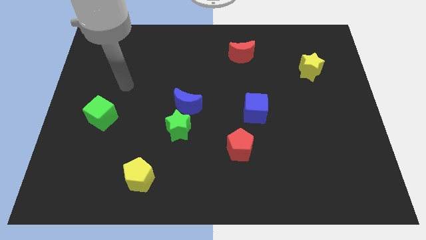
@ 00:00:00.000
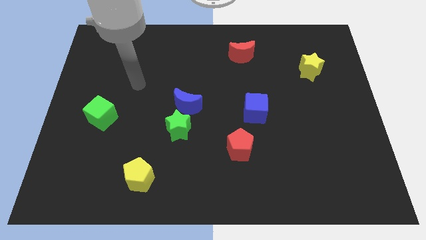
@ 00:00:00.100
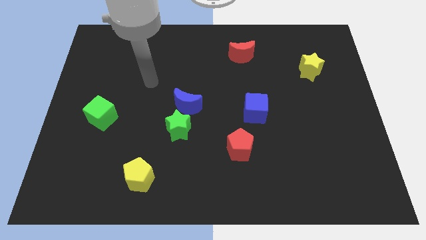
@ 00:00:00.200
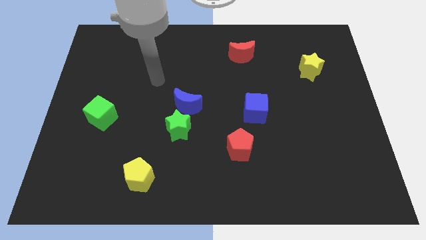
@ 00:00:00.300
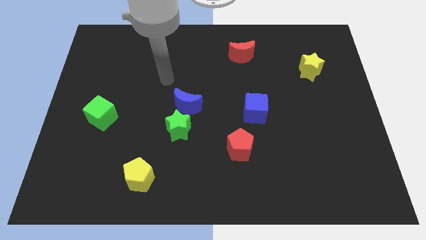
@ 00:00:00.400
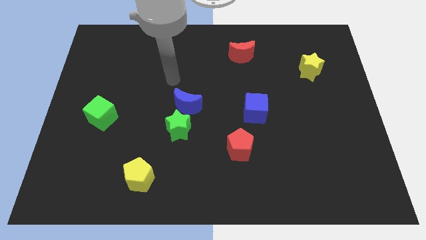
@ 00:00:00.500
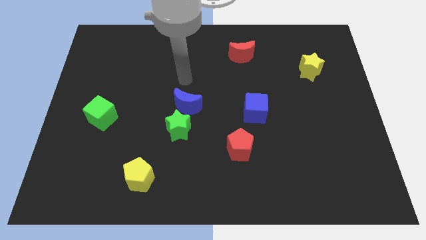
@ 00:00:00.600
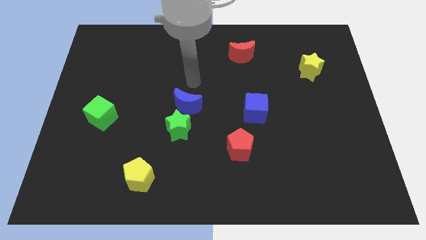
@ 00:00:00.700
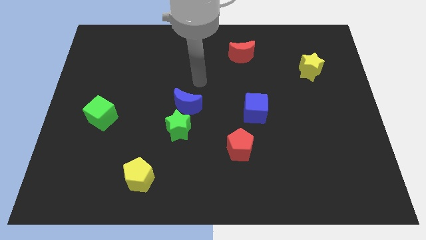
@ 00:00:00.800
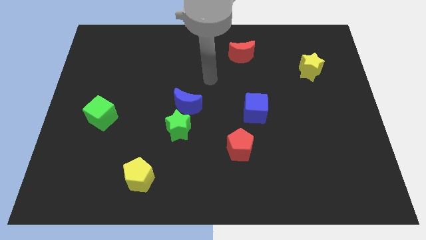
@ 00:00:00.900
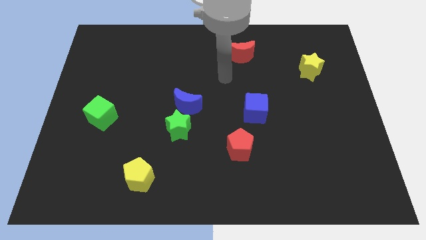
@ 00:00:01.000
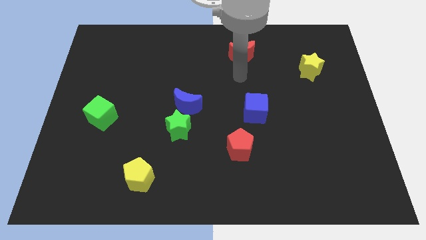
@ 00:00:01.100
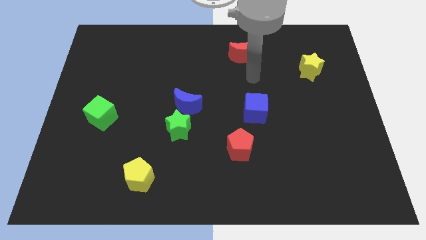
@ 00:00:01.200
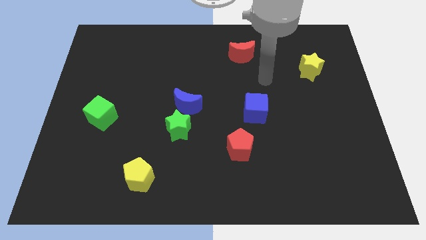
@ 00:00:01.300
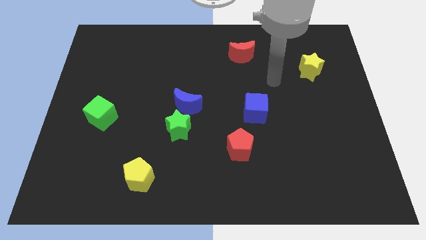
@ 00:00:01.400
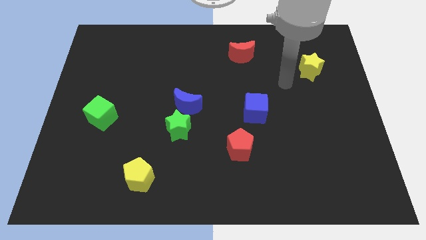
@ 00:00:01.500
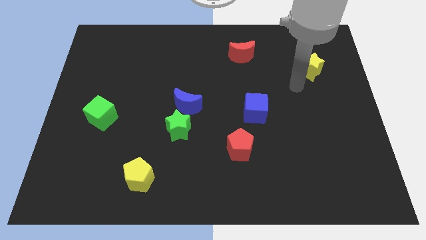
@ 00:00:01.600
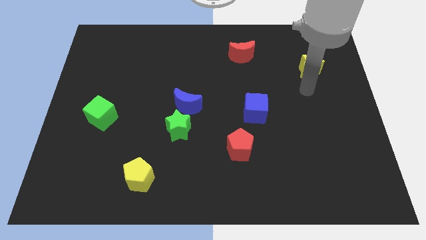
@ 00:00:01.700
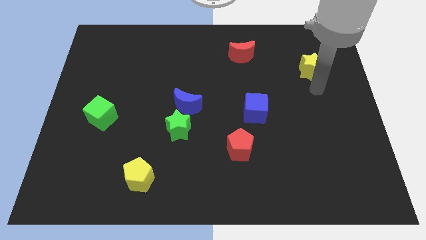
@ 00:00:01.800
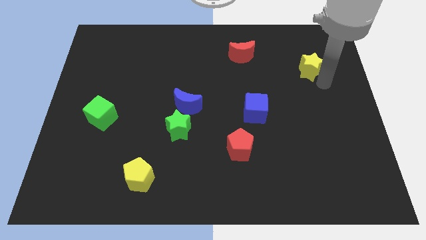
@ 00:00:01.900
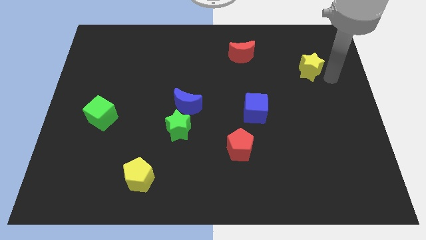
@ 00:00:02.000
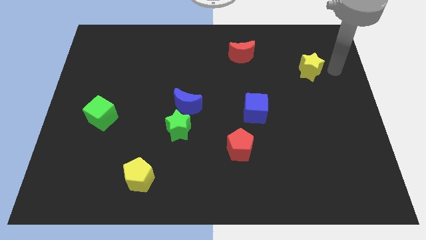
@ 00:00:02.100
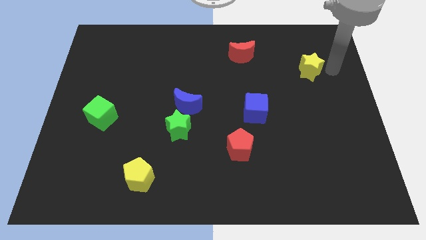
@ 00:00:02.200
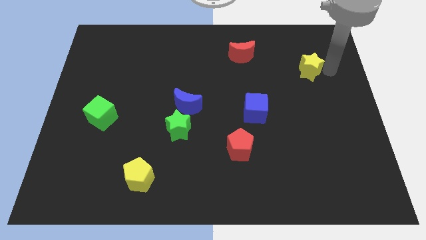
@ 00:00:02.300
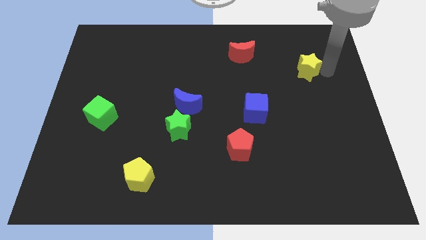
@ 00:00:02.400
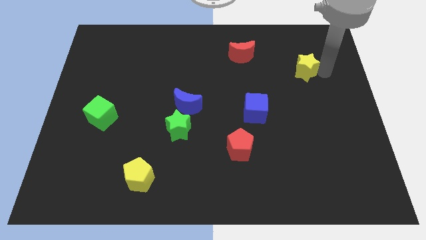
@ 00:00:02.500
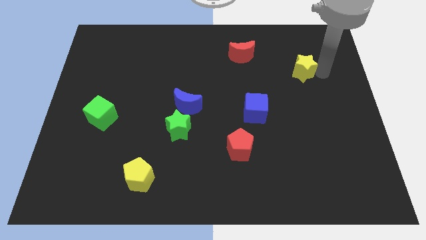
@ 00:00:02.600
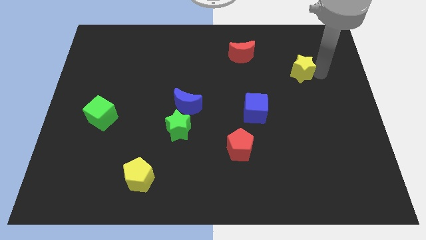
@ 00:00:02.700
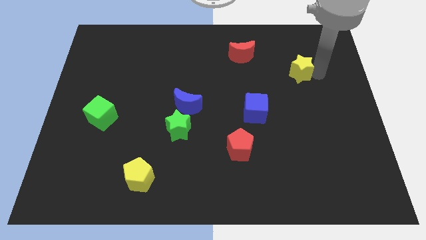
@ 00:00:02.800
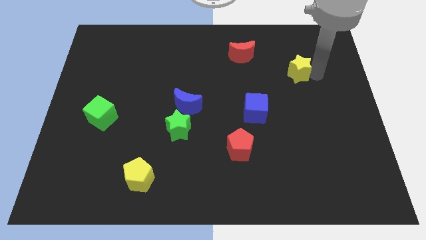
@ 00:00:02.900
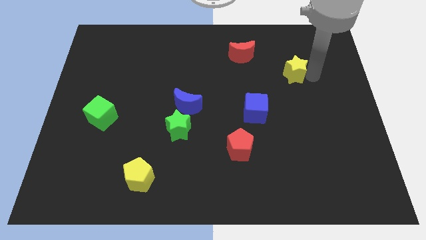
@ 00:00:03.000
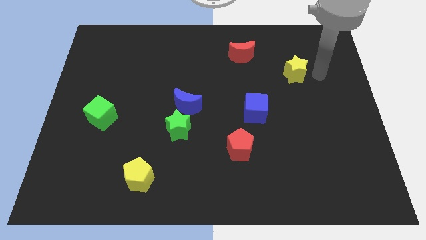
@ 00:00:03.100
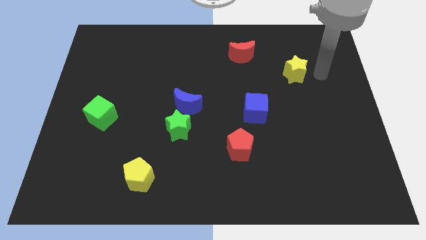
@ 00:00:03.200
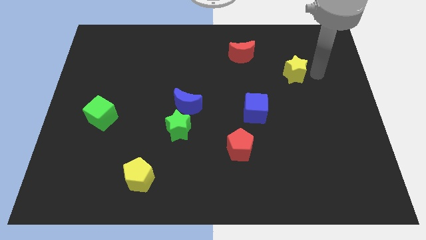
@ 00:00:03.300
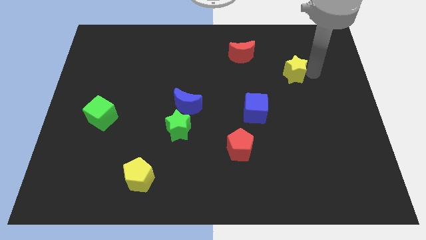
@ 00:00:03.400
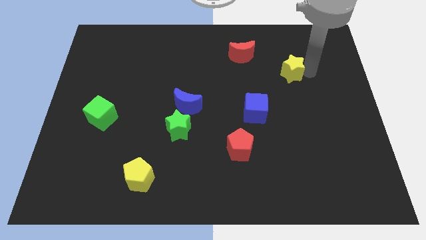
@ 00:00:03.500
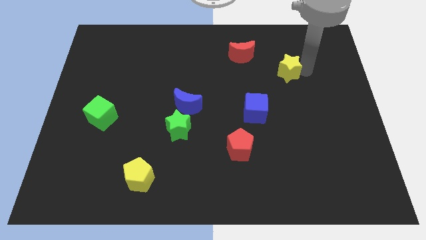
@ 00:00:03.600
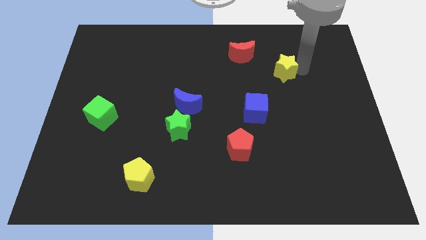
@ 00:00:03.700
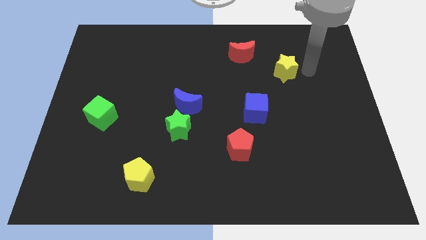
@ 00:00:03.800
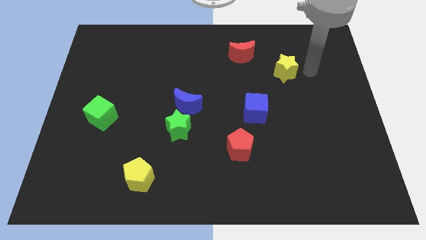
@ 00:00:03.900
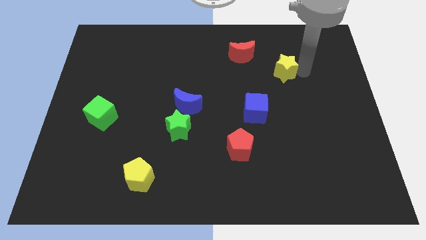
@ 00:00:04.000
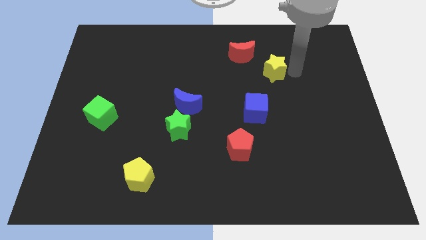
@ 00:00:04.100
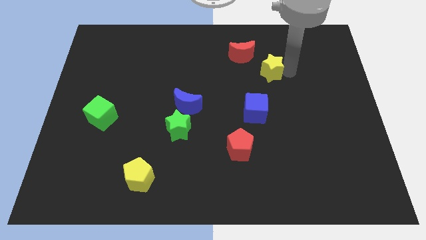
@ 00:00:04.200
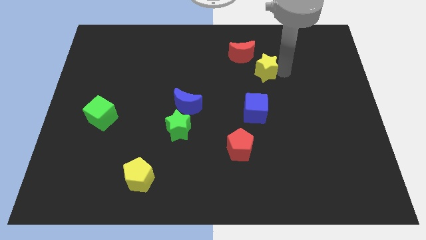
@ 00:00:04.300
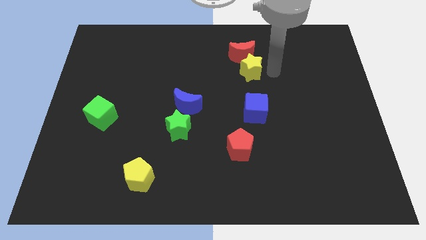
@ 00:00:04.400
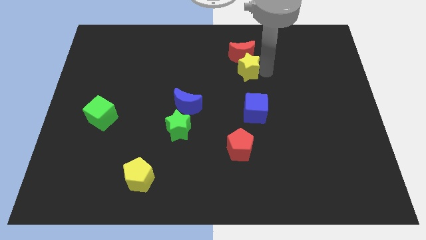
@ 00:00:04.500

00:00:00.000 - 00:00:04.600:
push the yellow star to the bottom left side of the red moon

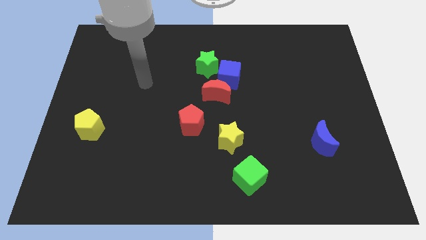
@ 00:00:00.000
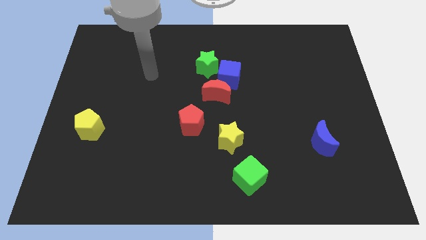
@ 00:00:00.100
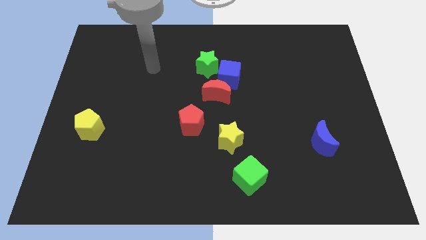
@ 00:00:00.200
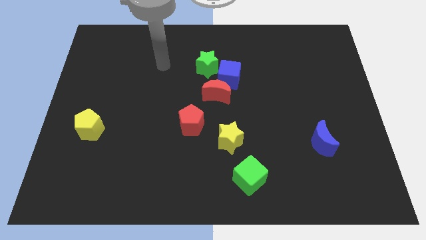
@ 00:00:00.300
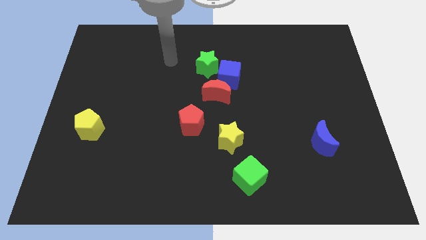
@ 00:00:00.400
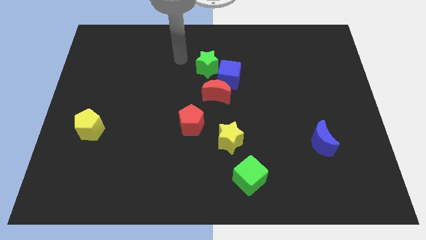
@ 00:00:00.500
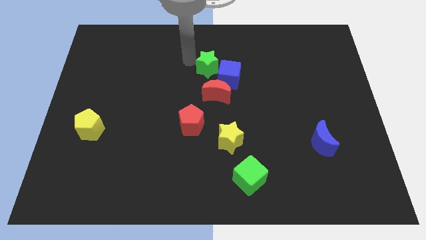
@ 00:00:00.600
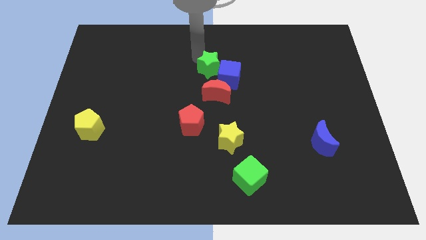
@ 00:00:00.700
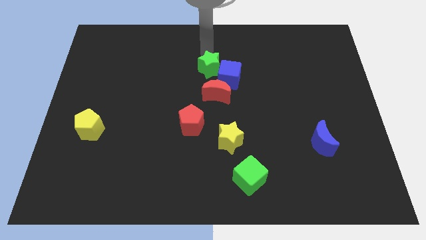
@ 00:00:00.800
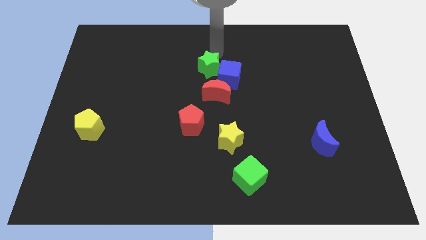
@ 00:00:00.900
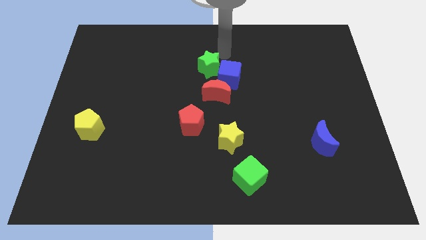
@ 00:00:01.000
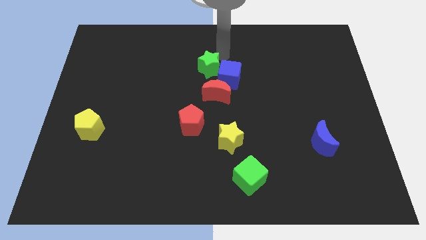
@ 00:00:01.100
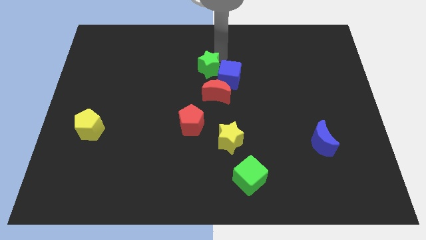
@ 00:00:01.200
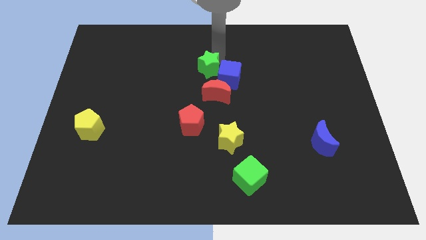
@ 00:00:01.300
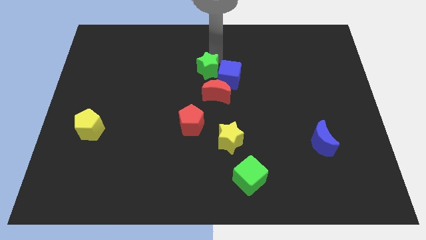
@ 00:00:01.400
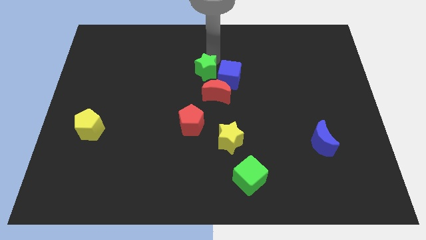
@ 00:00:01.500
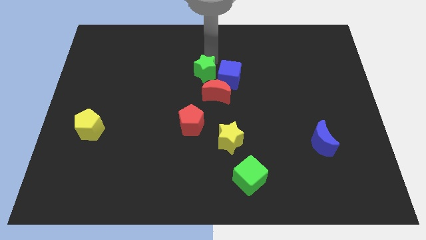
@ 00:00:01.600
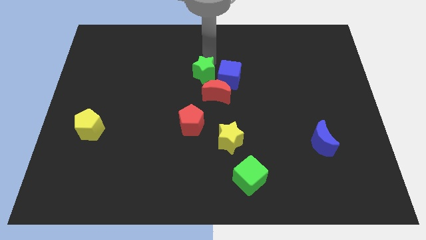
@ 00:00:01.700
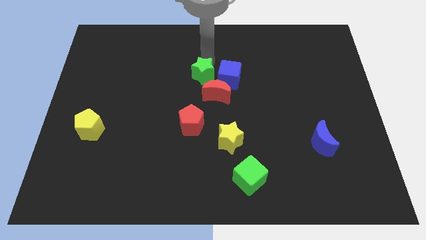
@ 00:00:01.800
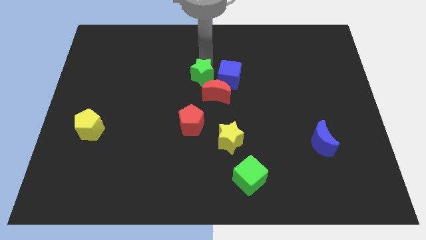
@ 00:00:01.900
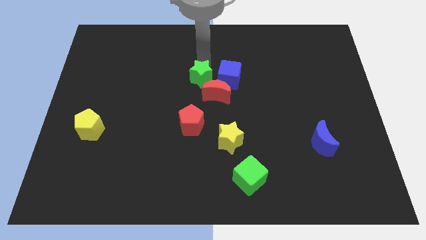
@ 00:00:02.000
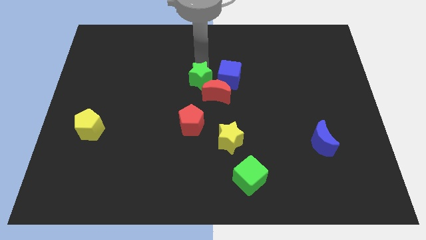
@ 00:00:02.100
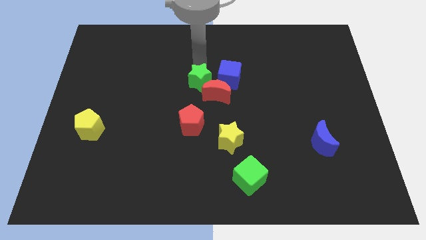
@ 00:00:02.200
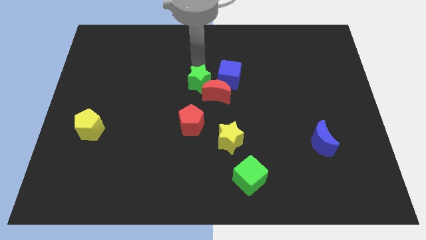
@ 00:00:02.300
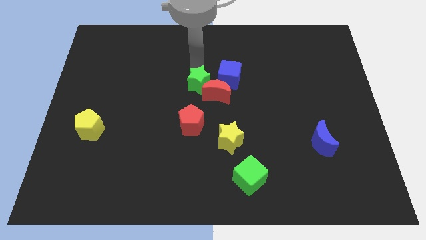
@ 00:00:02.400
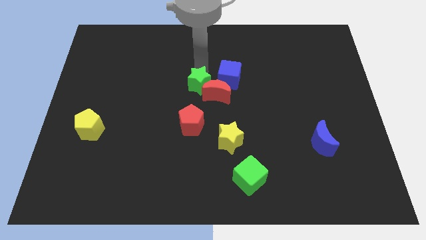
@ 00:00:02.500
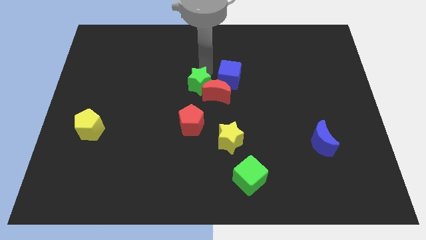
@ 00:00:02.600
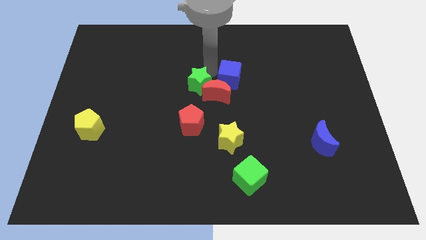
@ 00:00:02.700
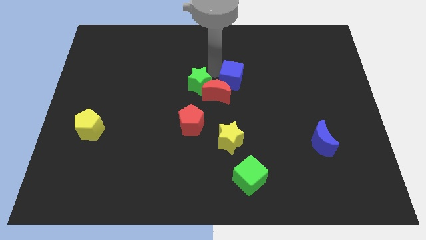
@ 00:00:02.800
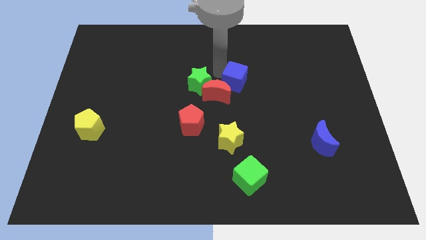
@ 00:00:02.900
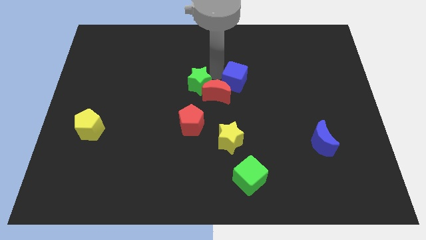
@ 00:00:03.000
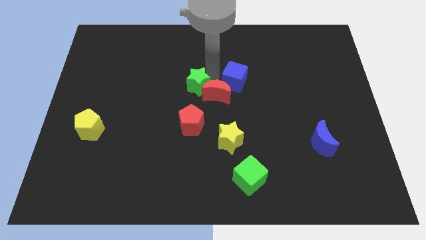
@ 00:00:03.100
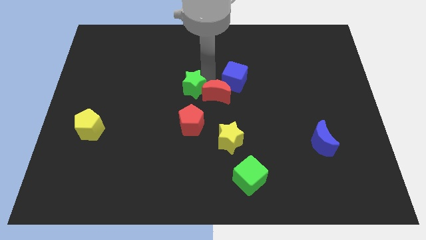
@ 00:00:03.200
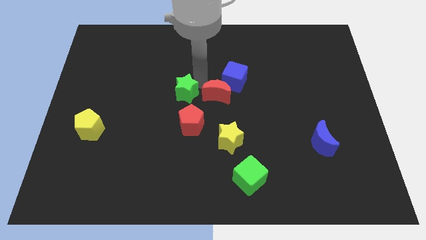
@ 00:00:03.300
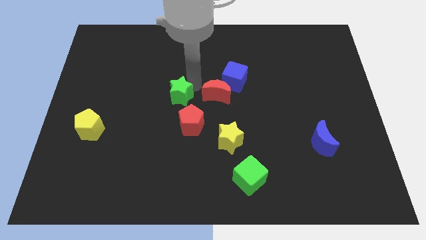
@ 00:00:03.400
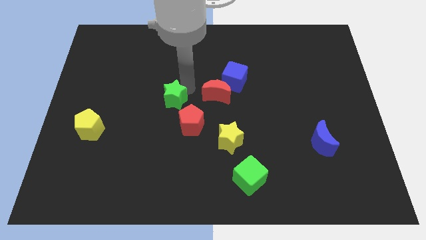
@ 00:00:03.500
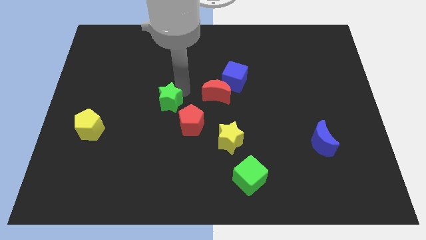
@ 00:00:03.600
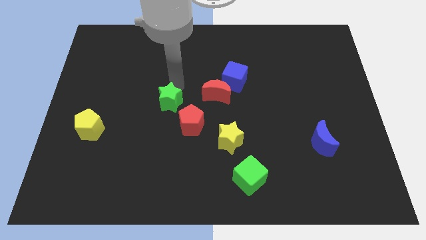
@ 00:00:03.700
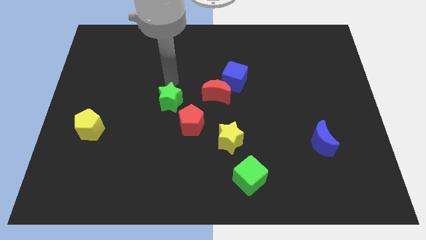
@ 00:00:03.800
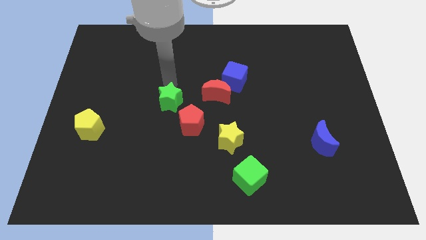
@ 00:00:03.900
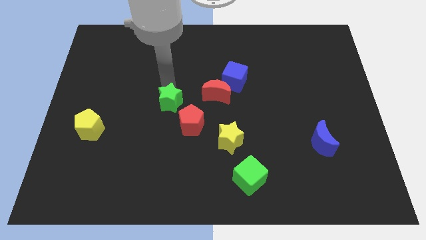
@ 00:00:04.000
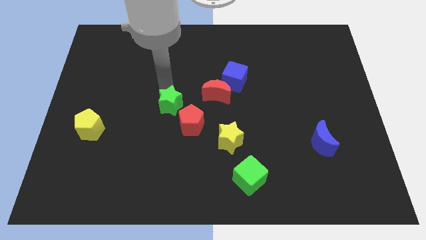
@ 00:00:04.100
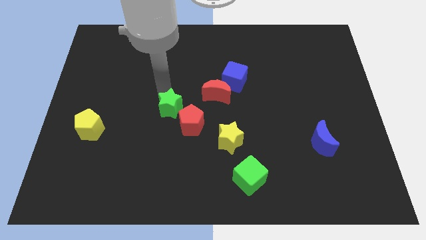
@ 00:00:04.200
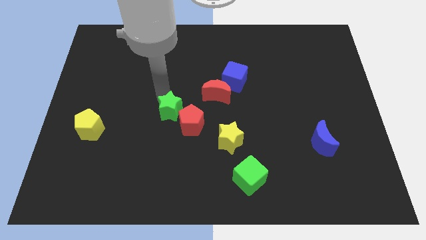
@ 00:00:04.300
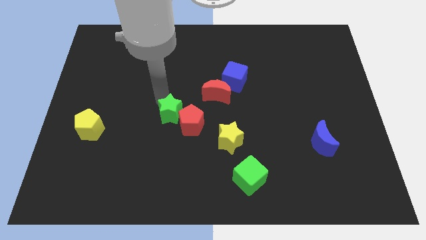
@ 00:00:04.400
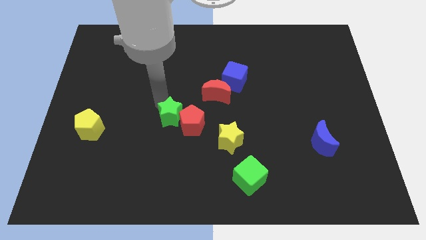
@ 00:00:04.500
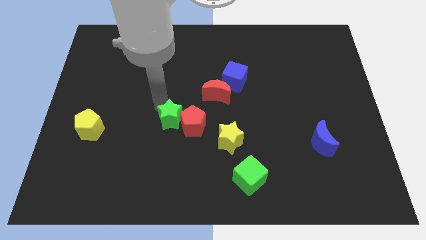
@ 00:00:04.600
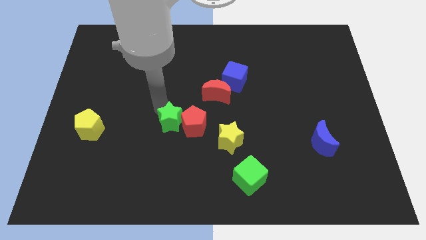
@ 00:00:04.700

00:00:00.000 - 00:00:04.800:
move the green star diagonally down and to the left of the red pentagon
